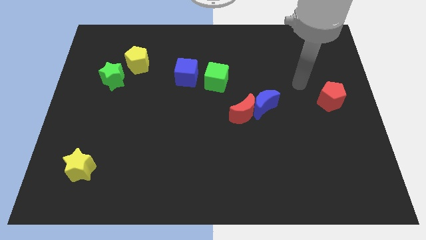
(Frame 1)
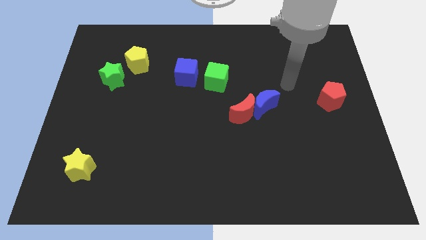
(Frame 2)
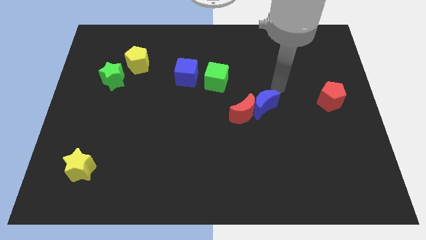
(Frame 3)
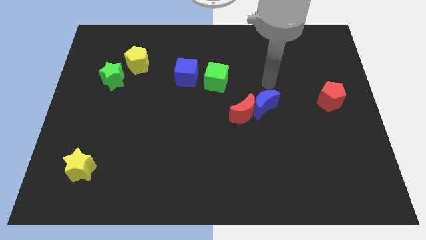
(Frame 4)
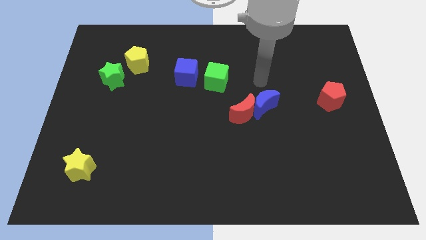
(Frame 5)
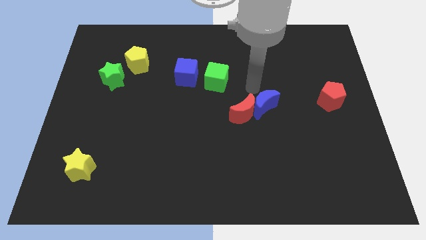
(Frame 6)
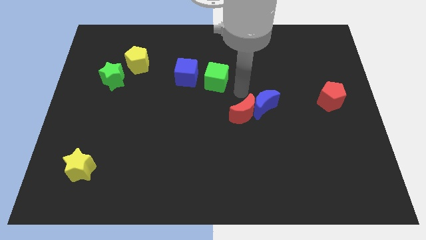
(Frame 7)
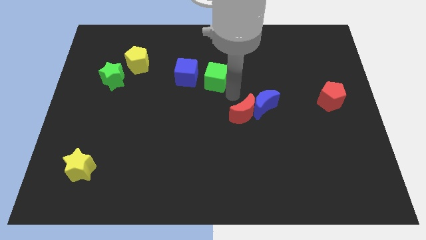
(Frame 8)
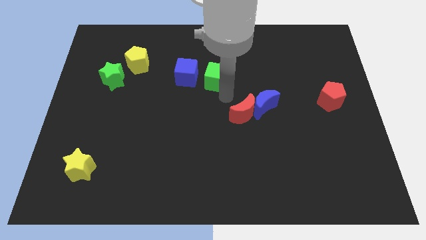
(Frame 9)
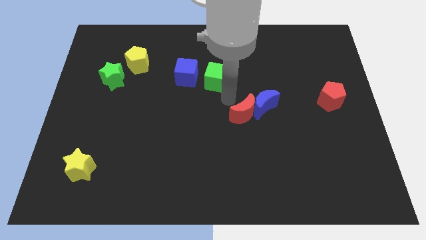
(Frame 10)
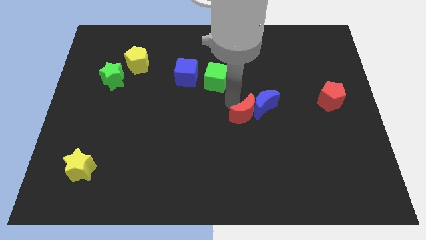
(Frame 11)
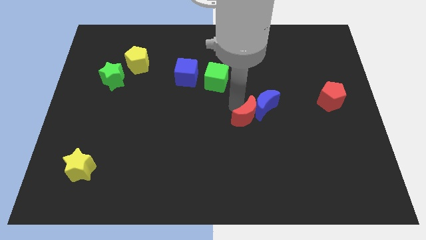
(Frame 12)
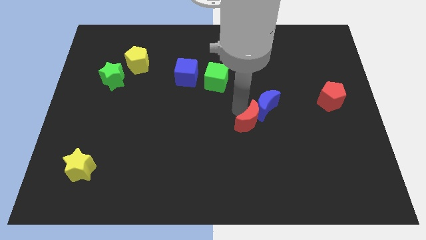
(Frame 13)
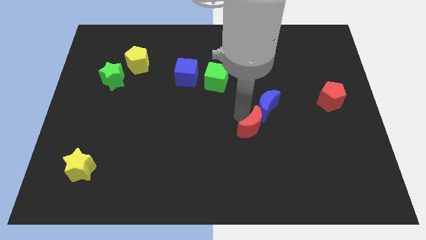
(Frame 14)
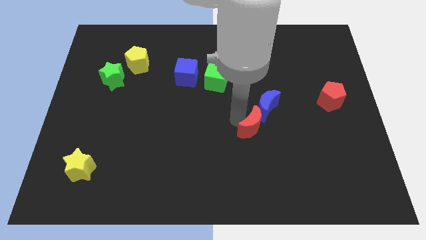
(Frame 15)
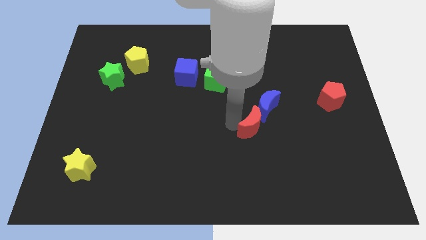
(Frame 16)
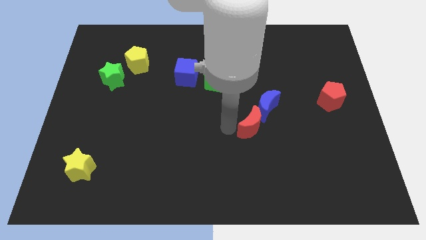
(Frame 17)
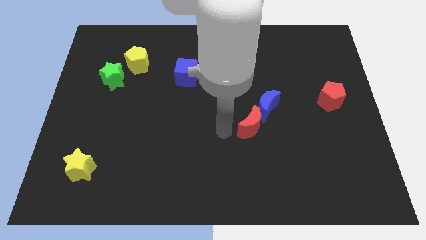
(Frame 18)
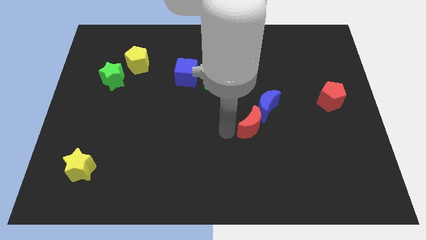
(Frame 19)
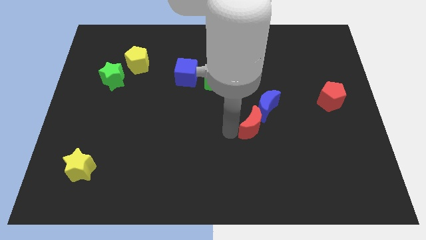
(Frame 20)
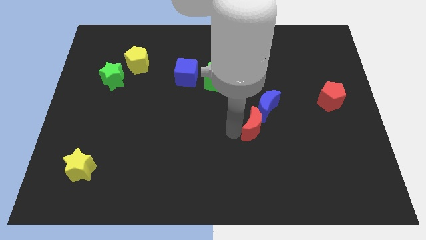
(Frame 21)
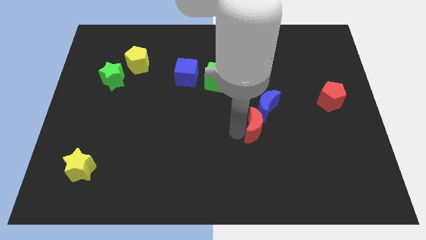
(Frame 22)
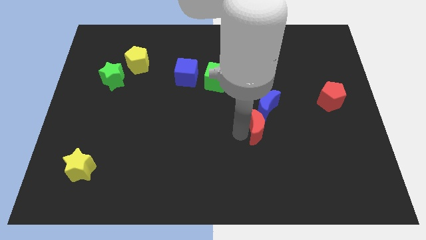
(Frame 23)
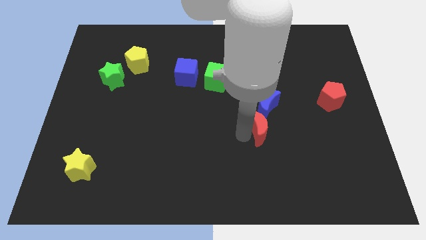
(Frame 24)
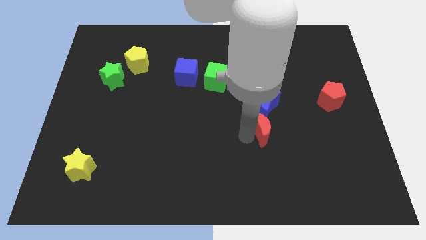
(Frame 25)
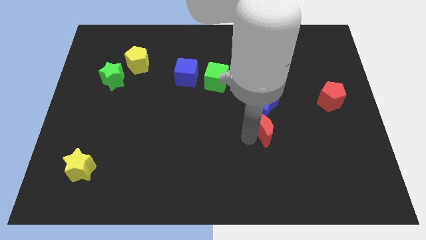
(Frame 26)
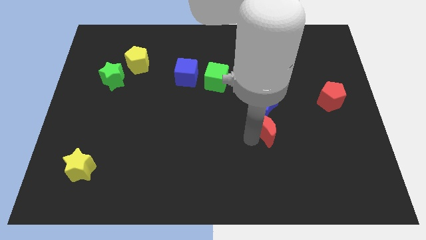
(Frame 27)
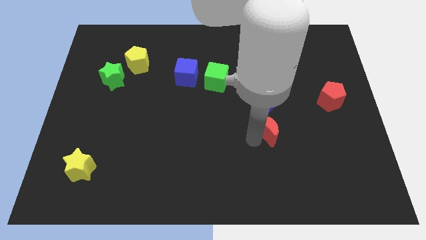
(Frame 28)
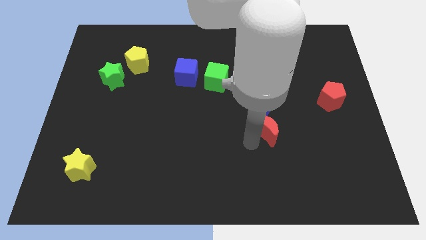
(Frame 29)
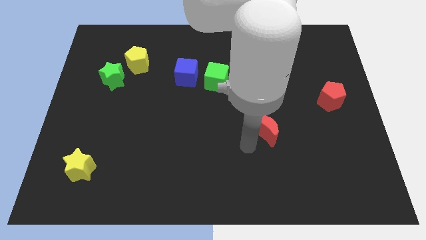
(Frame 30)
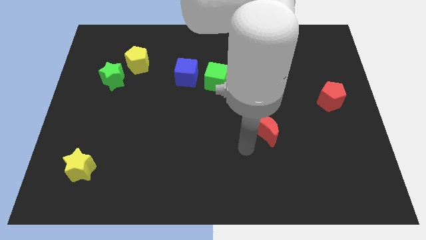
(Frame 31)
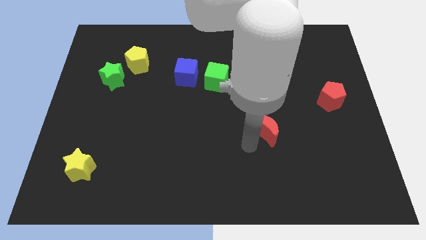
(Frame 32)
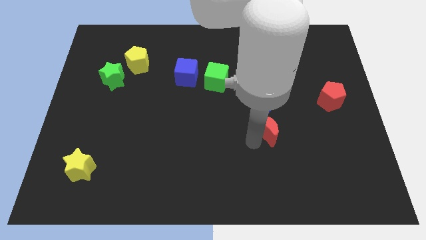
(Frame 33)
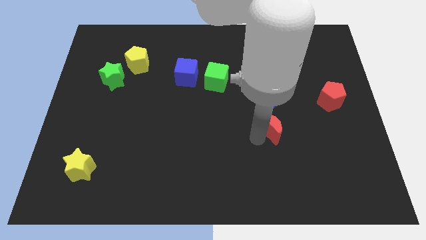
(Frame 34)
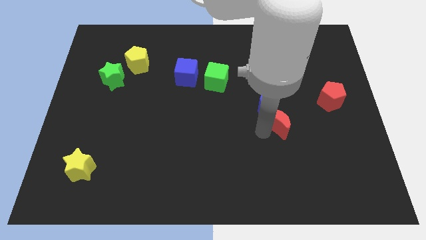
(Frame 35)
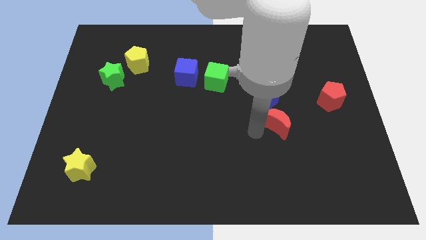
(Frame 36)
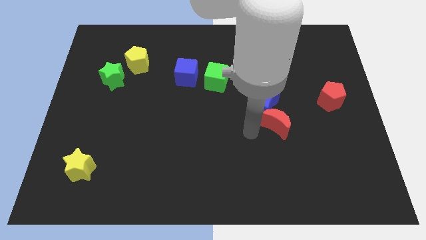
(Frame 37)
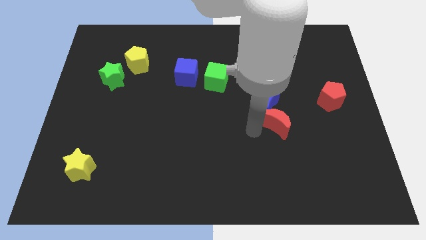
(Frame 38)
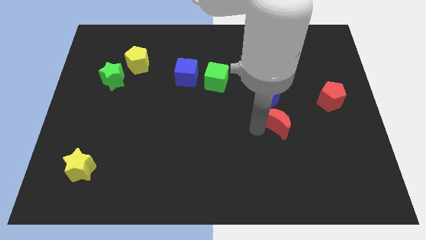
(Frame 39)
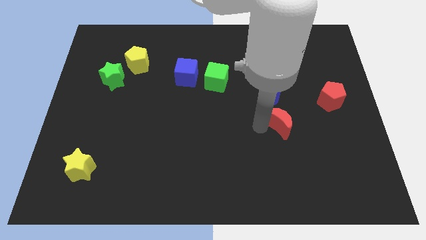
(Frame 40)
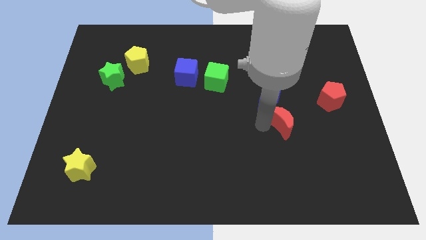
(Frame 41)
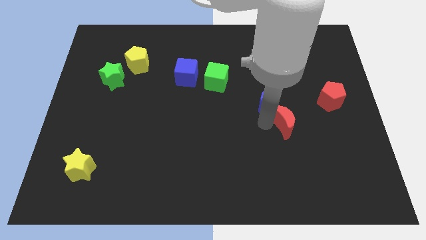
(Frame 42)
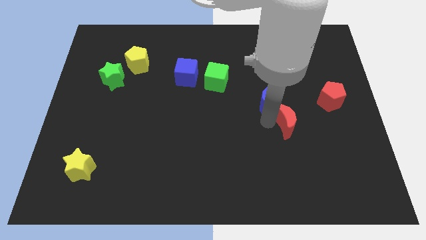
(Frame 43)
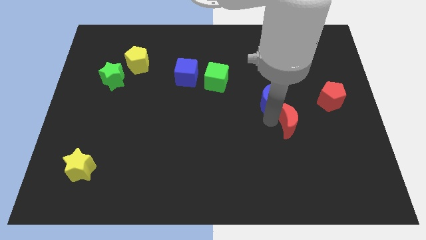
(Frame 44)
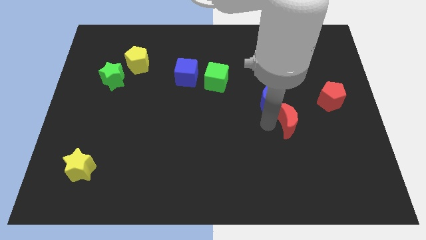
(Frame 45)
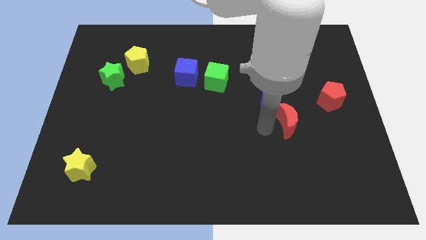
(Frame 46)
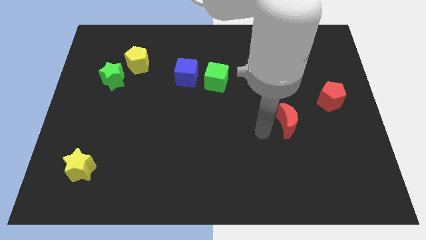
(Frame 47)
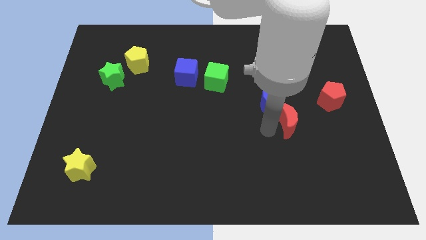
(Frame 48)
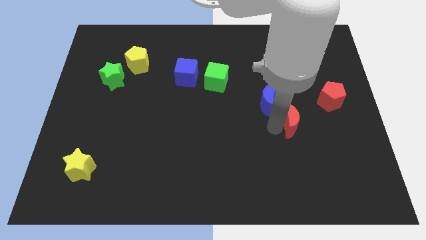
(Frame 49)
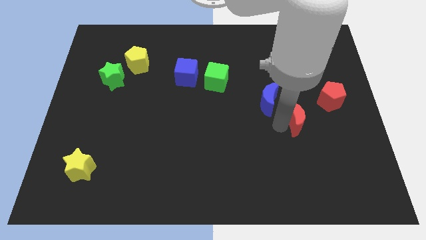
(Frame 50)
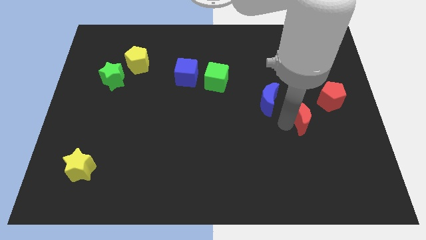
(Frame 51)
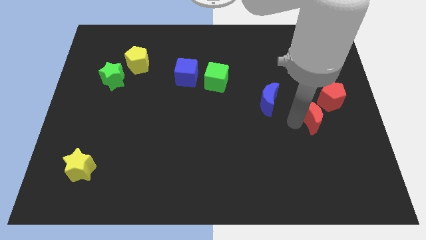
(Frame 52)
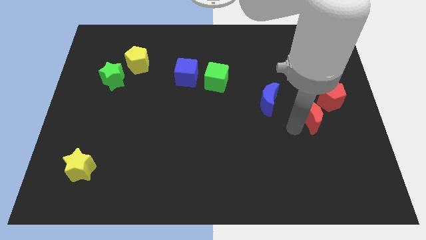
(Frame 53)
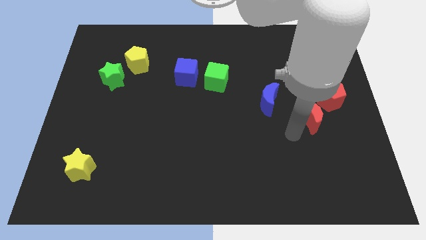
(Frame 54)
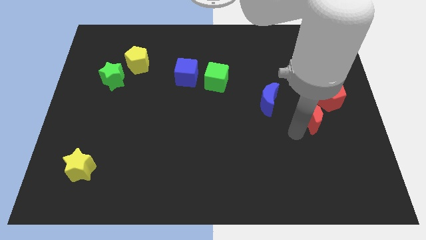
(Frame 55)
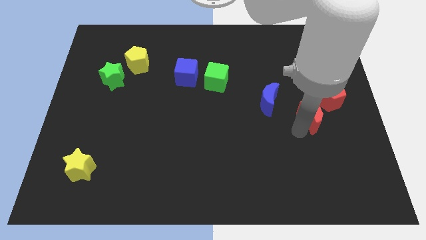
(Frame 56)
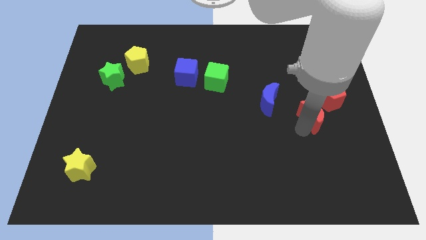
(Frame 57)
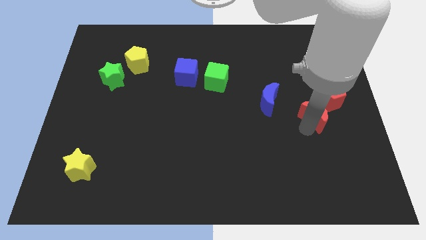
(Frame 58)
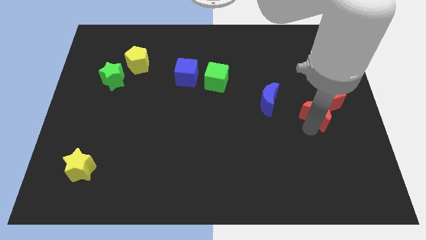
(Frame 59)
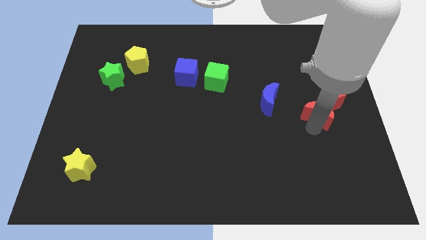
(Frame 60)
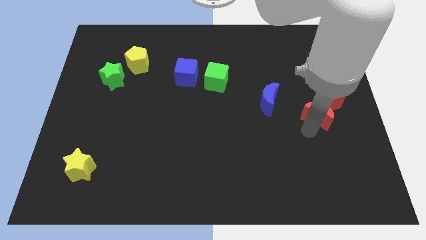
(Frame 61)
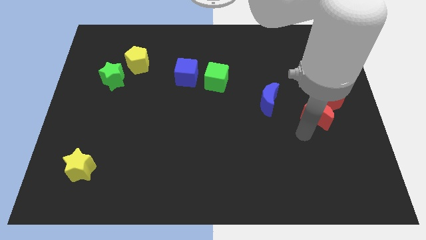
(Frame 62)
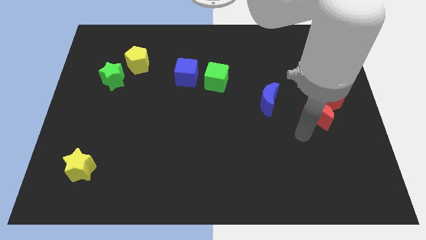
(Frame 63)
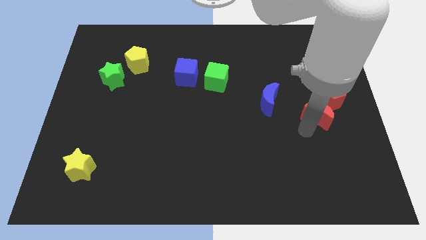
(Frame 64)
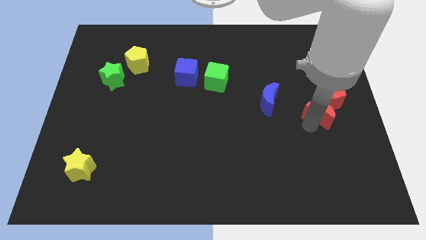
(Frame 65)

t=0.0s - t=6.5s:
put the red moon towards the red pentagon

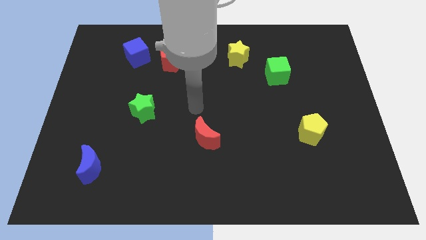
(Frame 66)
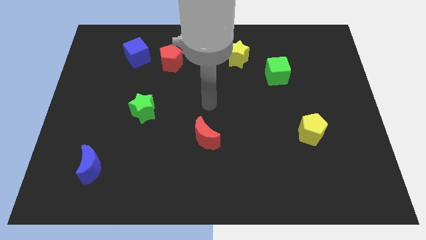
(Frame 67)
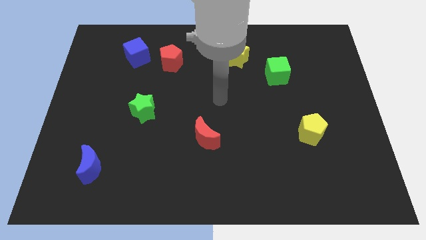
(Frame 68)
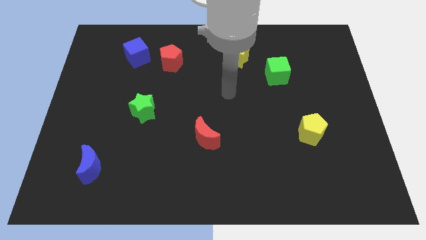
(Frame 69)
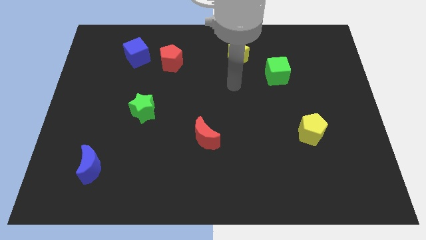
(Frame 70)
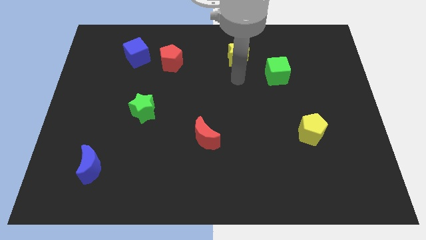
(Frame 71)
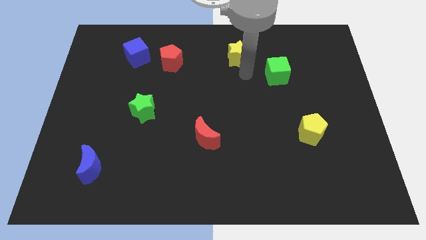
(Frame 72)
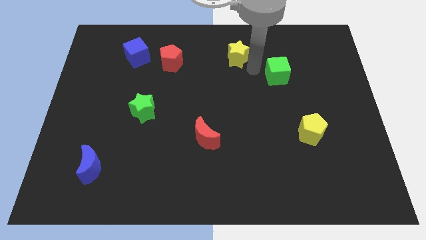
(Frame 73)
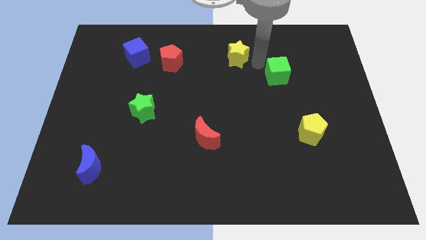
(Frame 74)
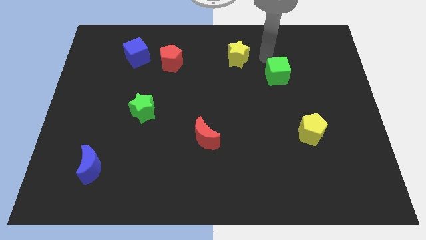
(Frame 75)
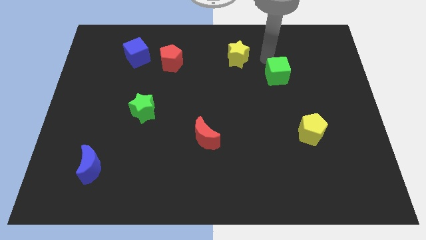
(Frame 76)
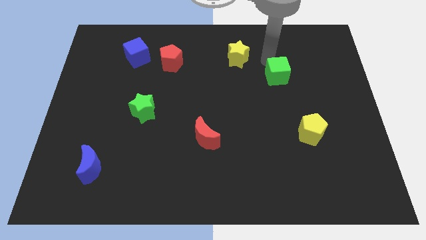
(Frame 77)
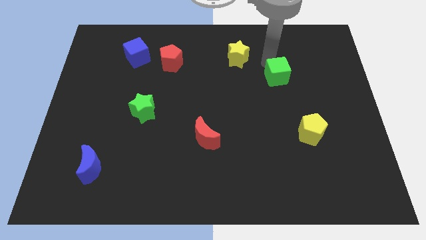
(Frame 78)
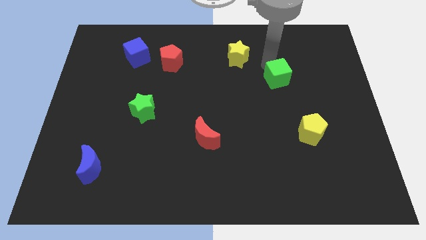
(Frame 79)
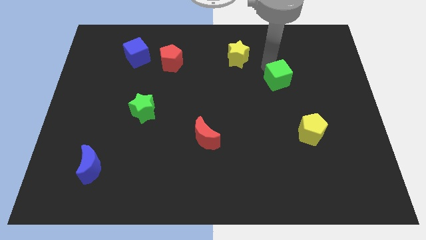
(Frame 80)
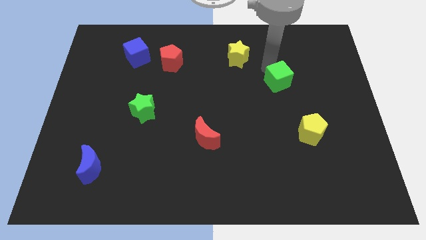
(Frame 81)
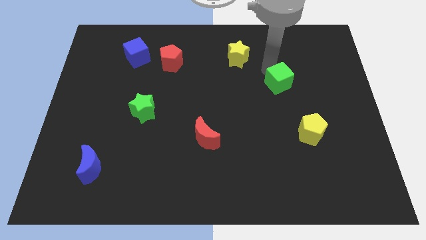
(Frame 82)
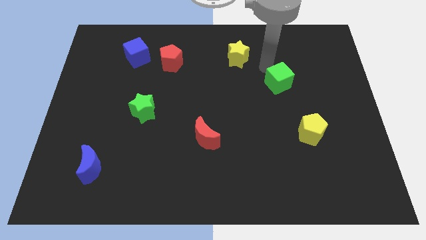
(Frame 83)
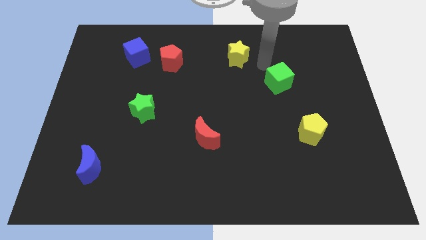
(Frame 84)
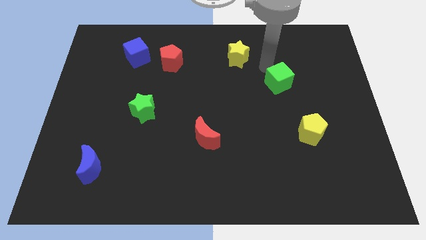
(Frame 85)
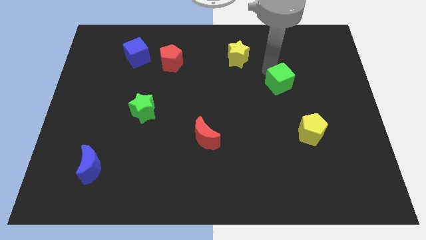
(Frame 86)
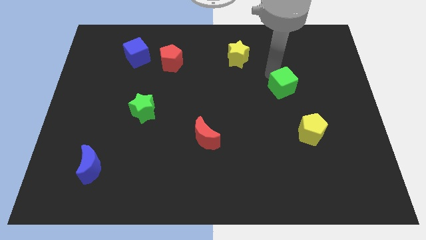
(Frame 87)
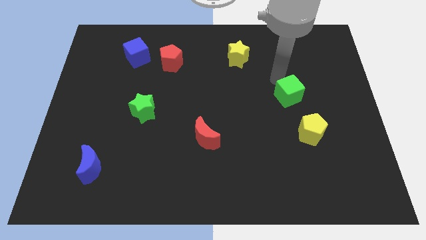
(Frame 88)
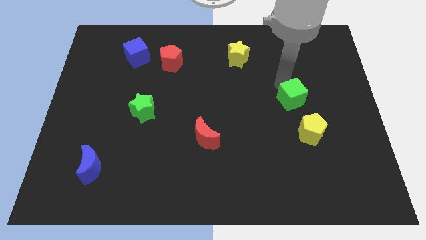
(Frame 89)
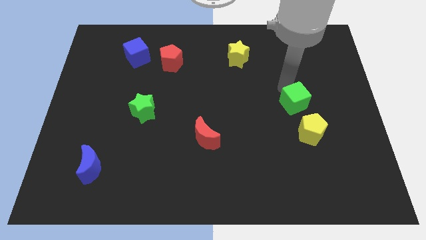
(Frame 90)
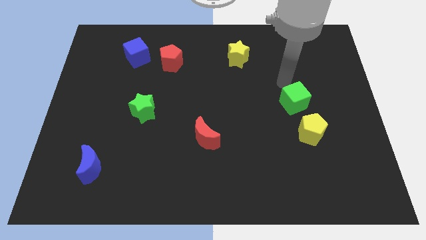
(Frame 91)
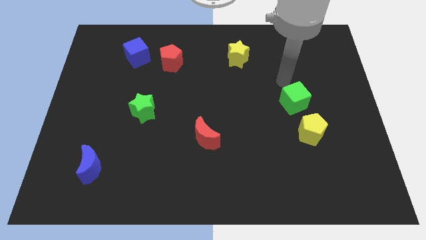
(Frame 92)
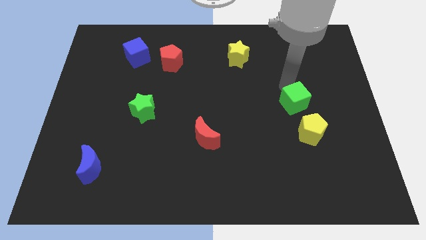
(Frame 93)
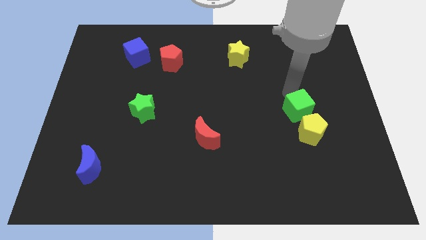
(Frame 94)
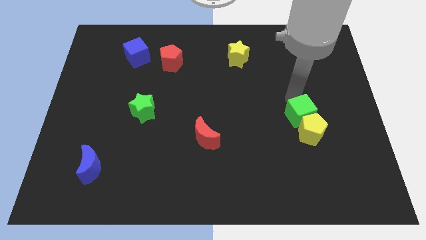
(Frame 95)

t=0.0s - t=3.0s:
push the green cube close to the yellow pentagon
